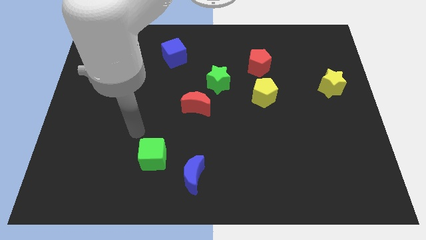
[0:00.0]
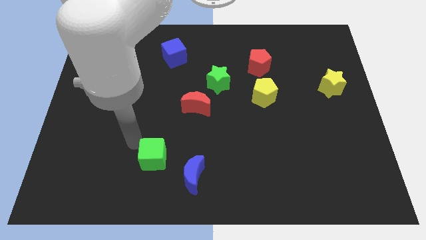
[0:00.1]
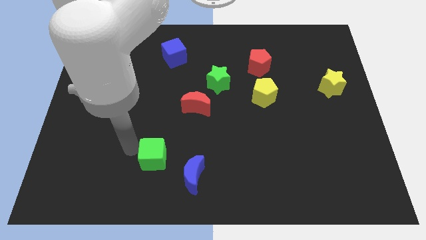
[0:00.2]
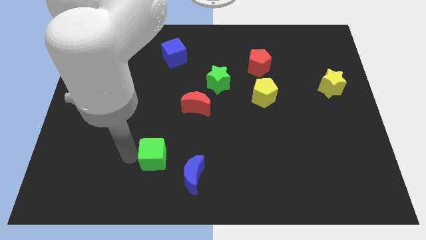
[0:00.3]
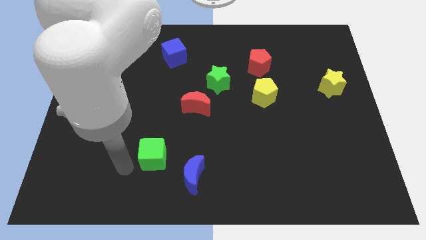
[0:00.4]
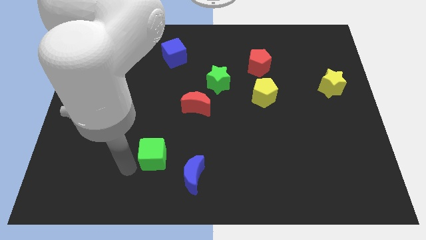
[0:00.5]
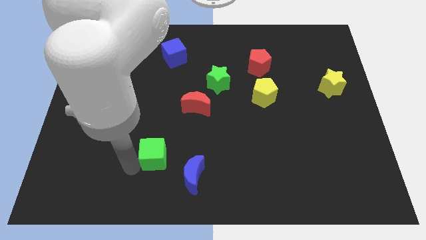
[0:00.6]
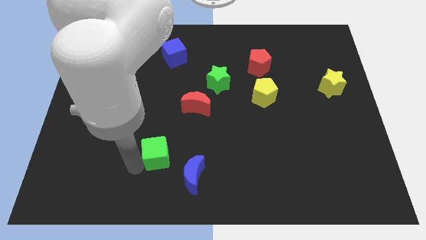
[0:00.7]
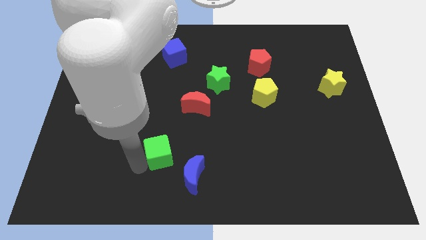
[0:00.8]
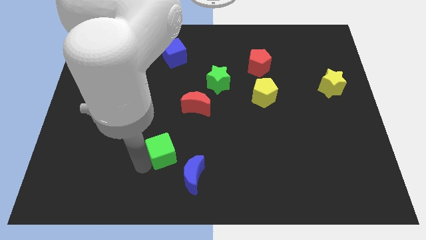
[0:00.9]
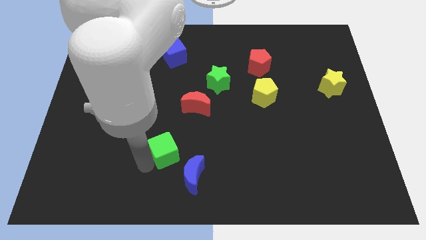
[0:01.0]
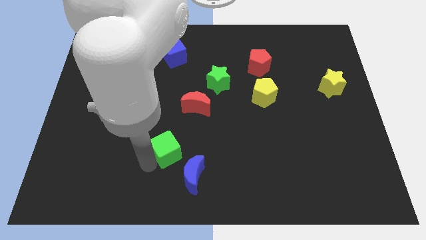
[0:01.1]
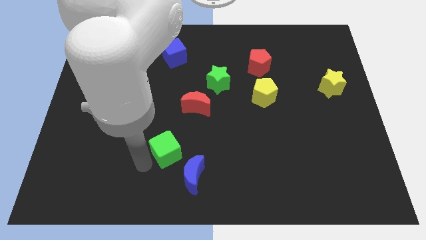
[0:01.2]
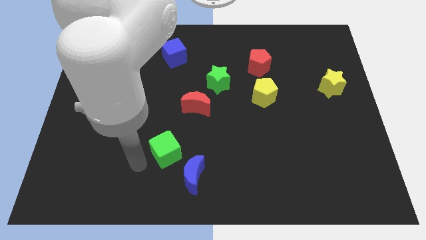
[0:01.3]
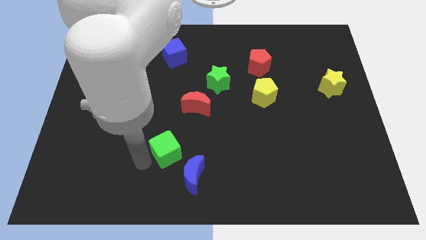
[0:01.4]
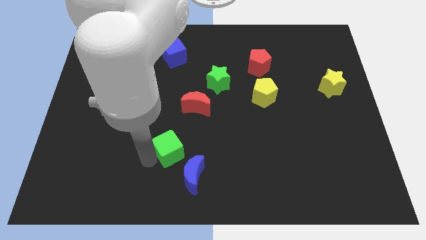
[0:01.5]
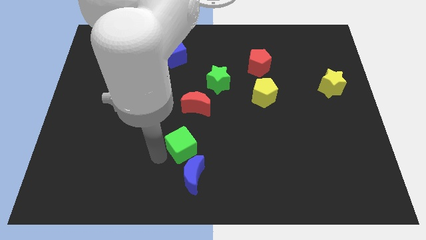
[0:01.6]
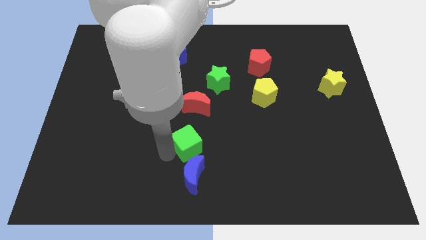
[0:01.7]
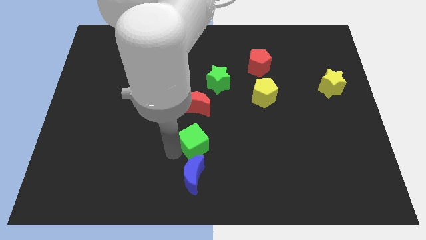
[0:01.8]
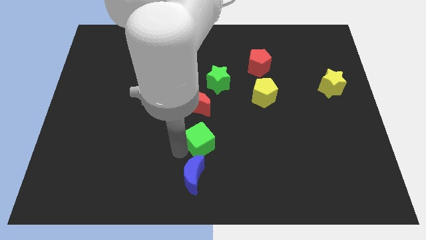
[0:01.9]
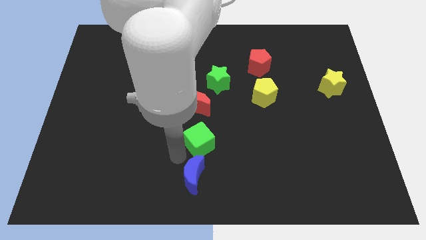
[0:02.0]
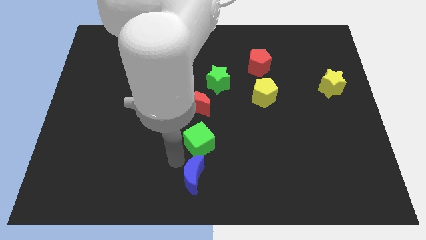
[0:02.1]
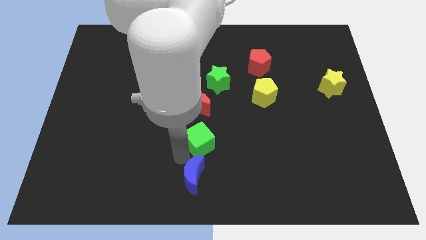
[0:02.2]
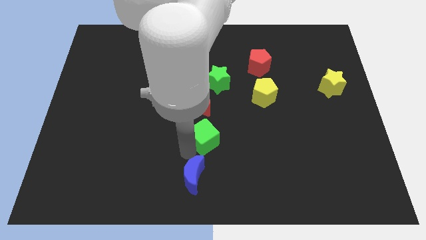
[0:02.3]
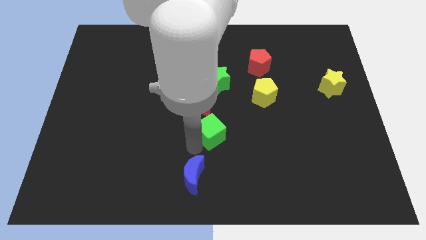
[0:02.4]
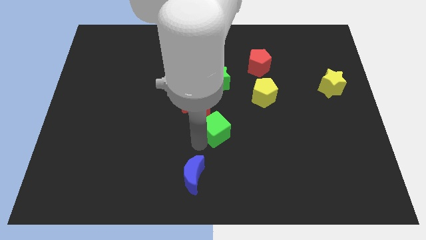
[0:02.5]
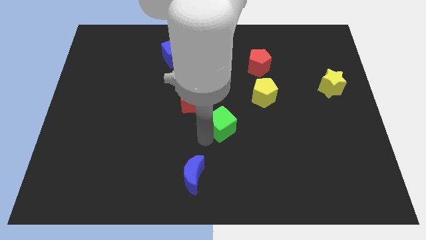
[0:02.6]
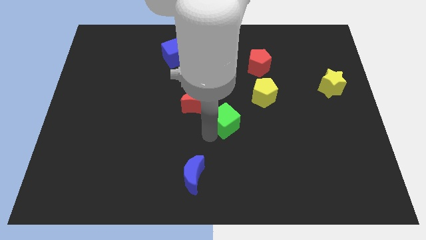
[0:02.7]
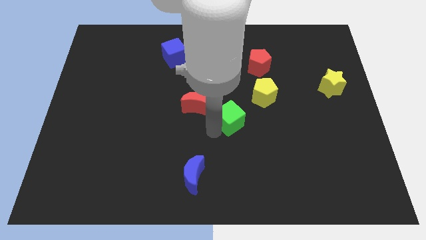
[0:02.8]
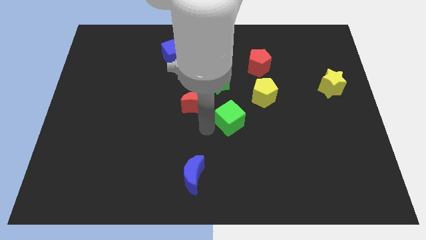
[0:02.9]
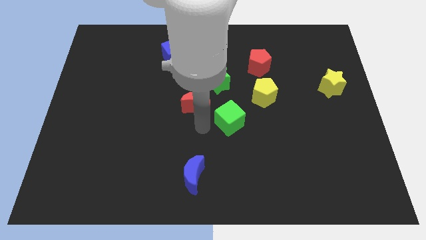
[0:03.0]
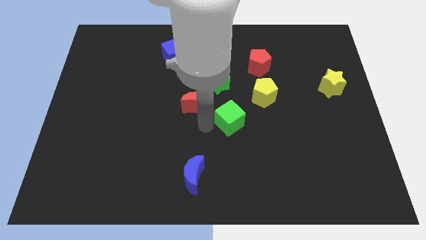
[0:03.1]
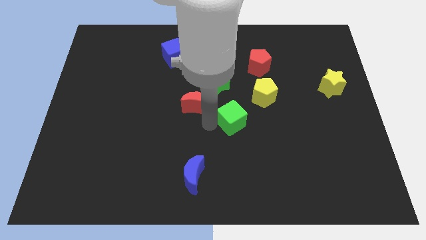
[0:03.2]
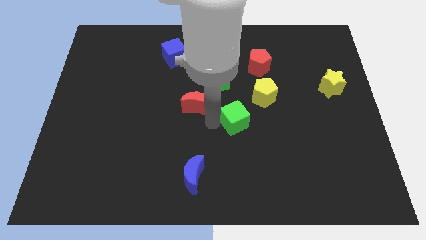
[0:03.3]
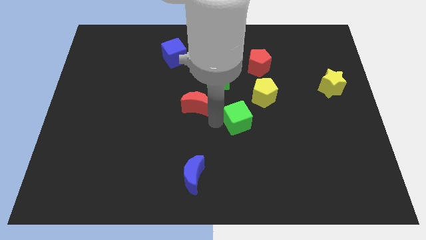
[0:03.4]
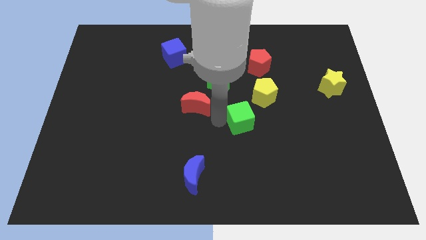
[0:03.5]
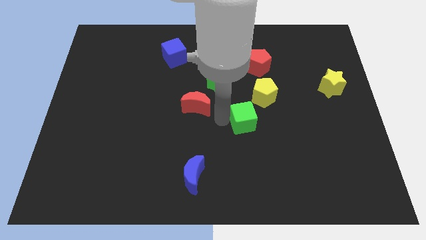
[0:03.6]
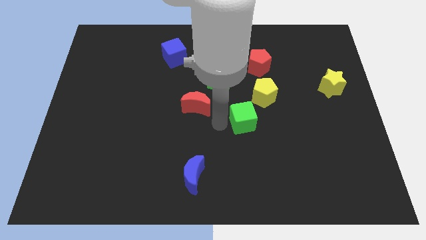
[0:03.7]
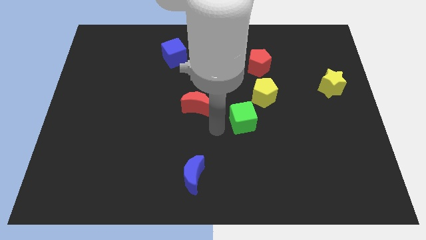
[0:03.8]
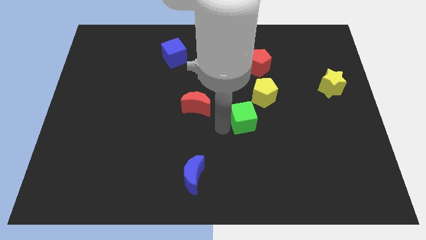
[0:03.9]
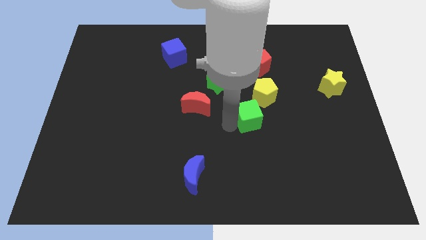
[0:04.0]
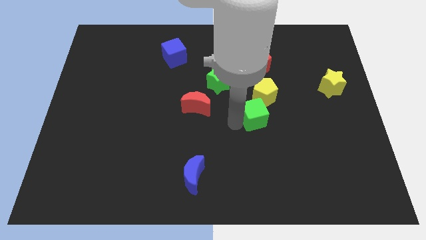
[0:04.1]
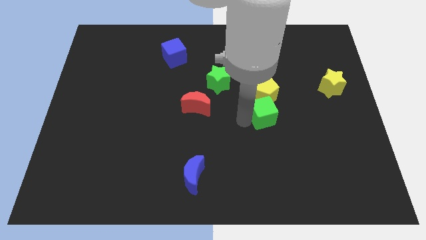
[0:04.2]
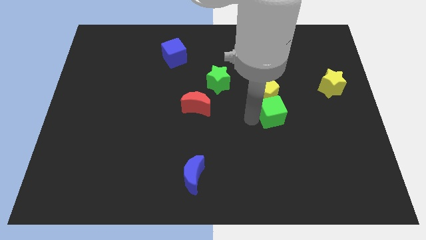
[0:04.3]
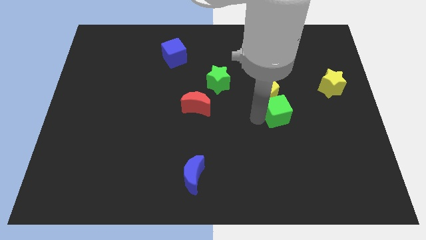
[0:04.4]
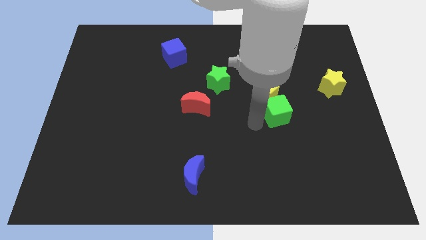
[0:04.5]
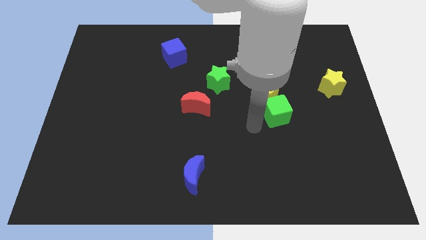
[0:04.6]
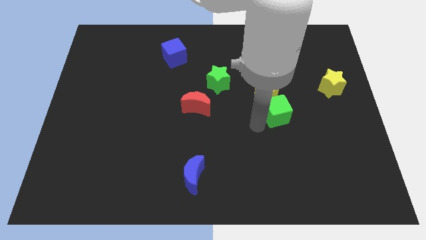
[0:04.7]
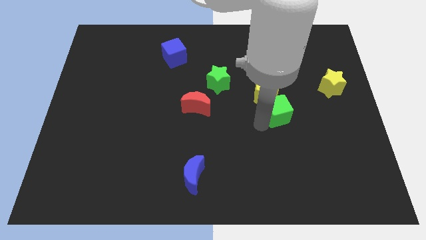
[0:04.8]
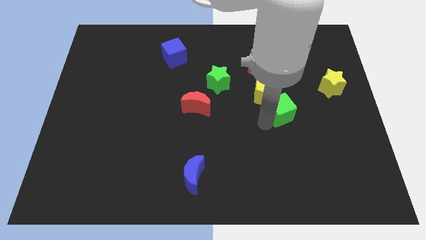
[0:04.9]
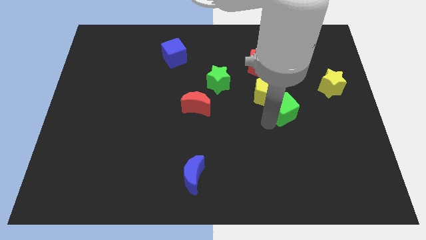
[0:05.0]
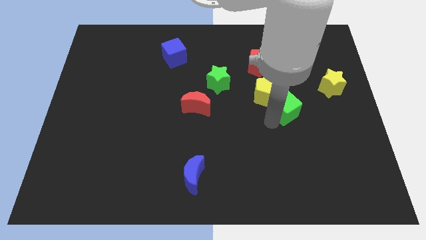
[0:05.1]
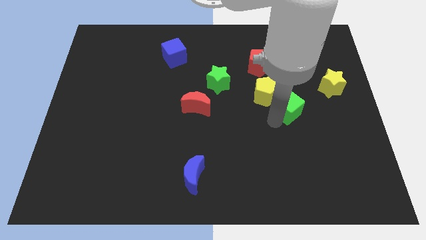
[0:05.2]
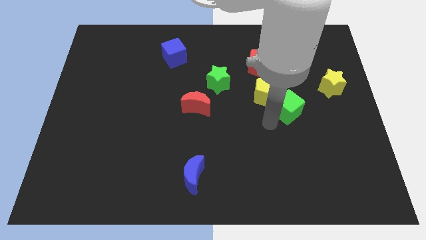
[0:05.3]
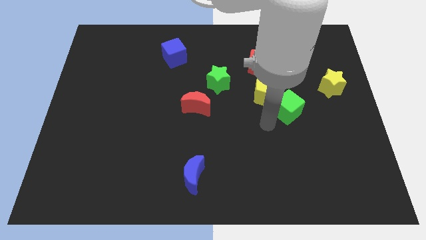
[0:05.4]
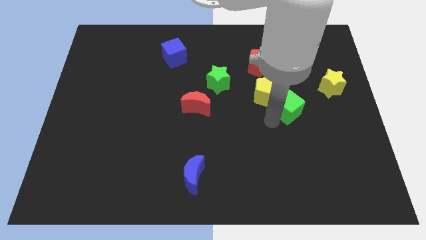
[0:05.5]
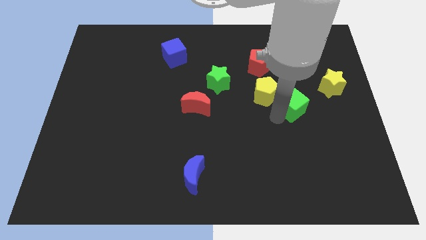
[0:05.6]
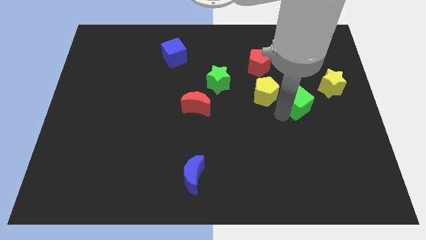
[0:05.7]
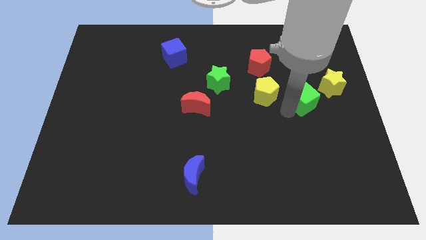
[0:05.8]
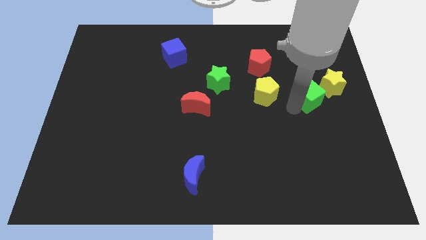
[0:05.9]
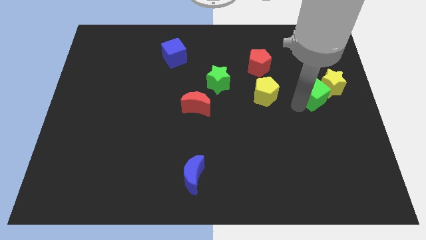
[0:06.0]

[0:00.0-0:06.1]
move the green cube close to the yellow star

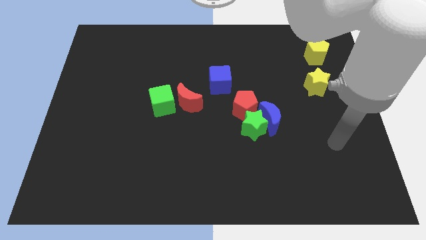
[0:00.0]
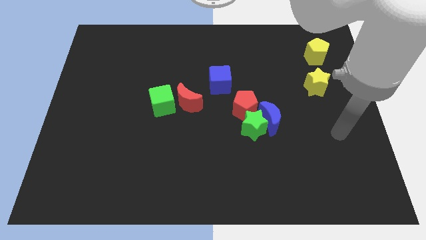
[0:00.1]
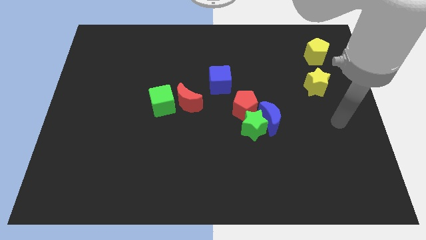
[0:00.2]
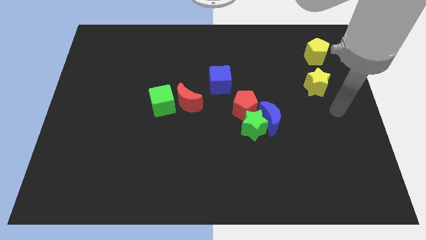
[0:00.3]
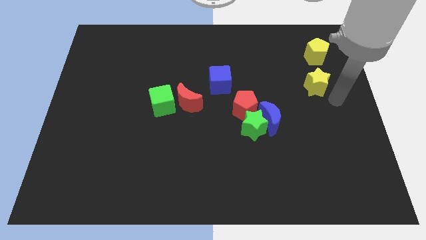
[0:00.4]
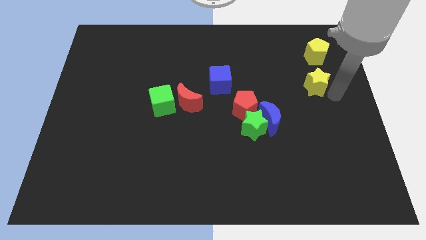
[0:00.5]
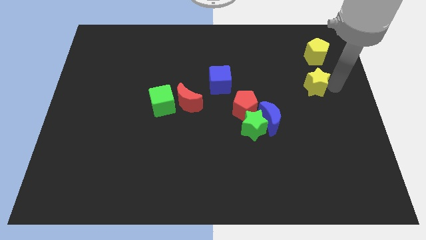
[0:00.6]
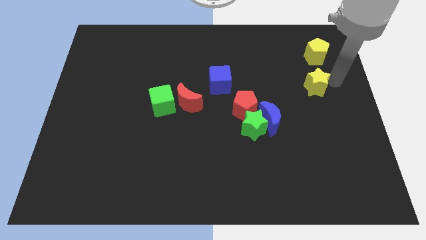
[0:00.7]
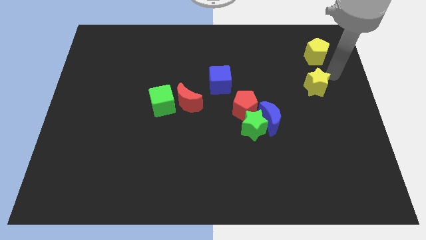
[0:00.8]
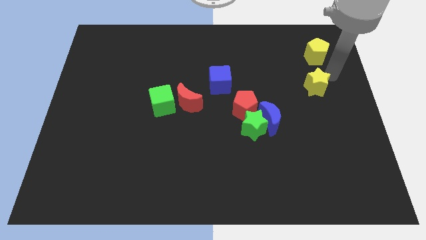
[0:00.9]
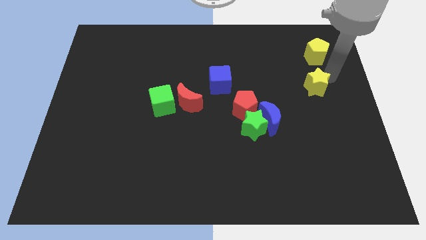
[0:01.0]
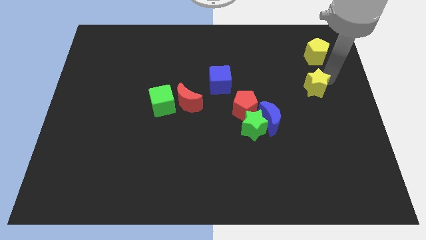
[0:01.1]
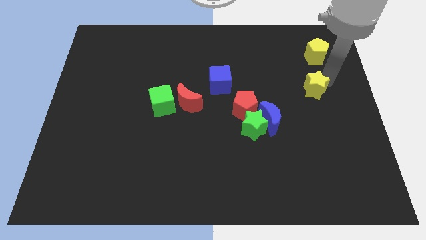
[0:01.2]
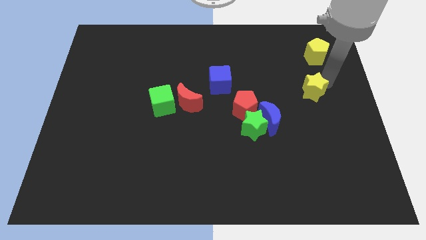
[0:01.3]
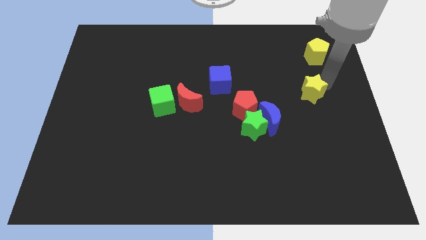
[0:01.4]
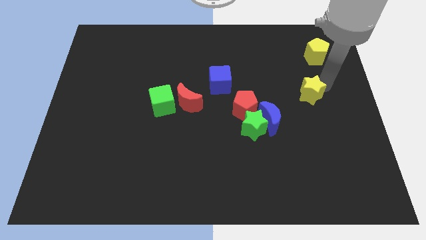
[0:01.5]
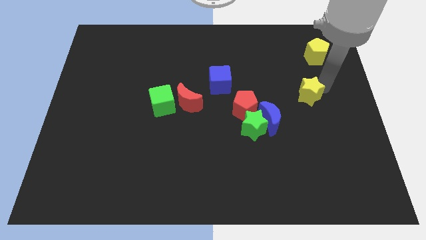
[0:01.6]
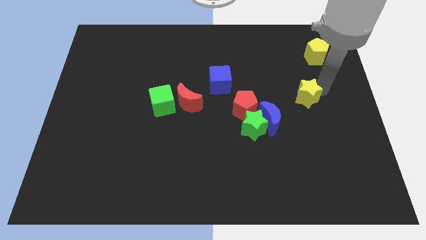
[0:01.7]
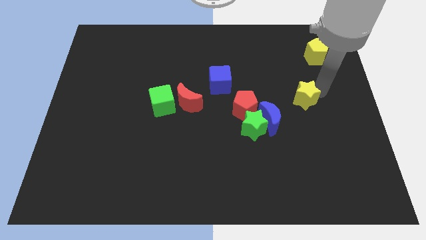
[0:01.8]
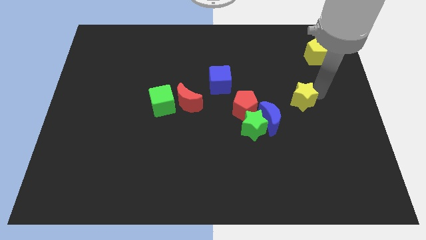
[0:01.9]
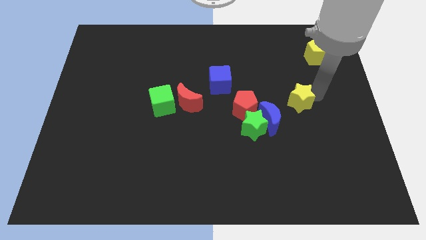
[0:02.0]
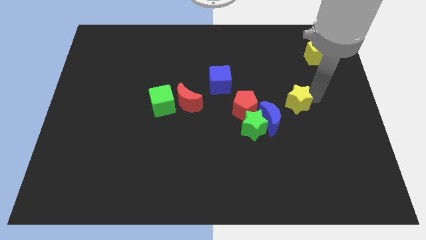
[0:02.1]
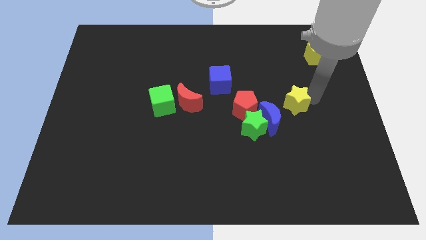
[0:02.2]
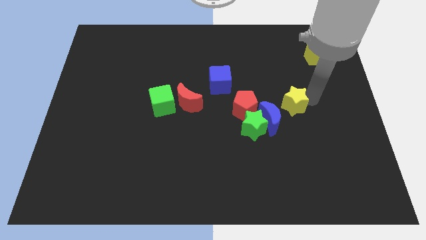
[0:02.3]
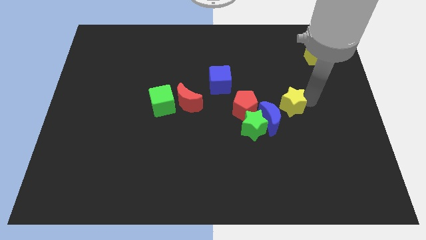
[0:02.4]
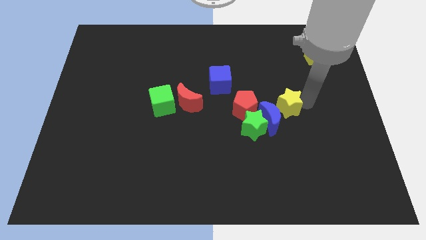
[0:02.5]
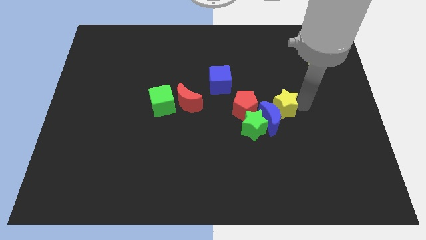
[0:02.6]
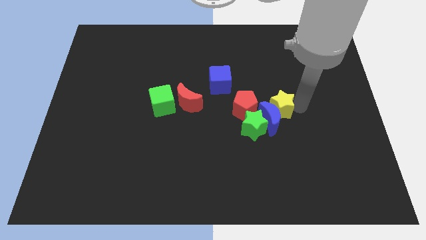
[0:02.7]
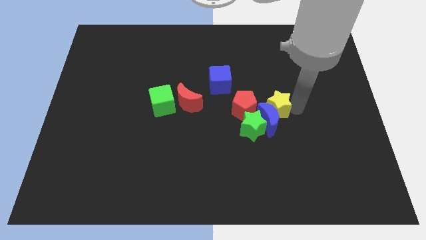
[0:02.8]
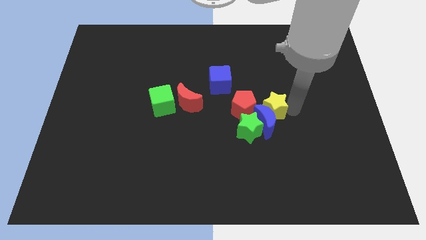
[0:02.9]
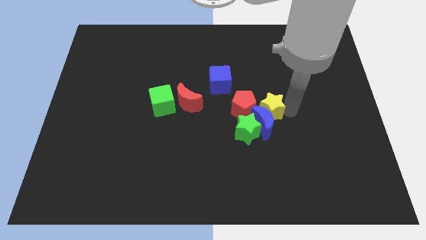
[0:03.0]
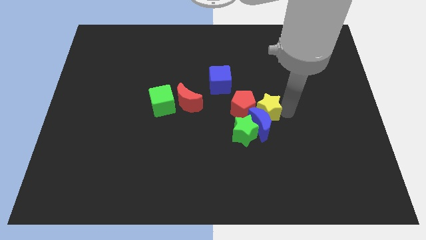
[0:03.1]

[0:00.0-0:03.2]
move the yellow star towards the red pentagon
